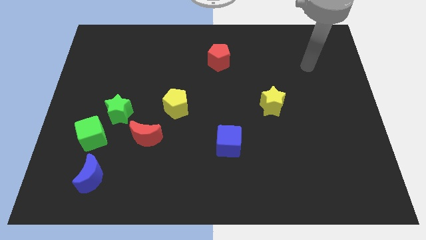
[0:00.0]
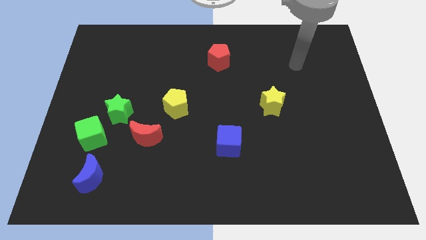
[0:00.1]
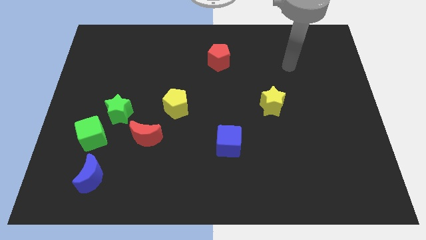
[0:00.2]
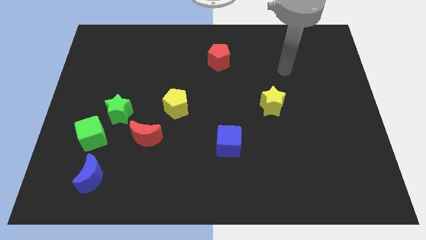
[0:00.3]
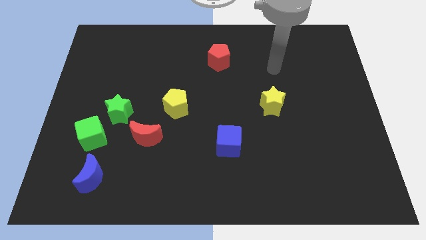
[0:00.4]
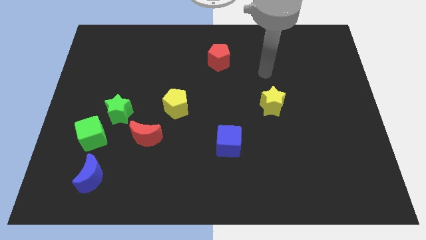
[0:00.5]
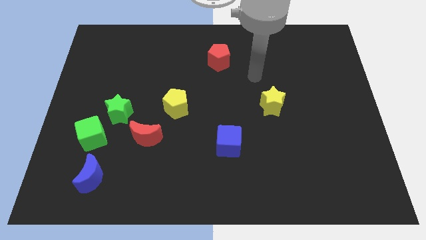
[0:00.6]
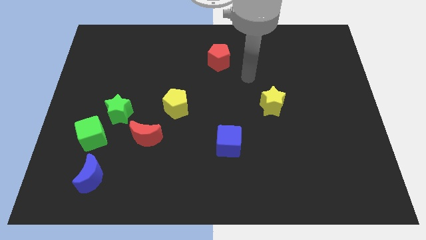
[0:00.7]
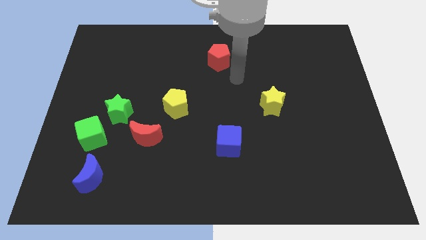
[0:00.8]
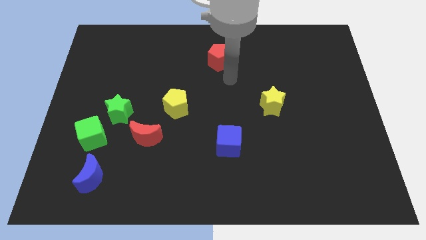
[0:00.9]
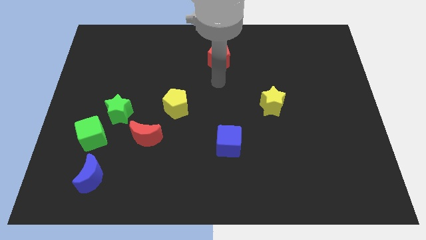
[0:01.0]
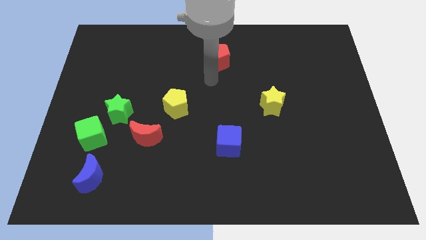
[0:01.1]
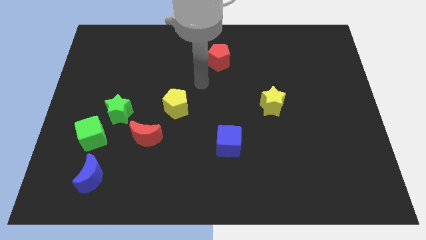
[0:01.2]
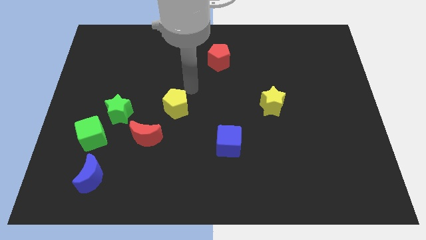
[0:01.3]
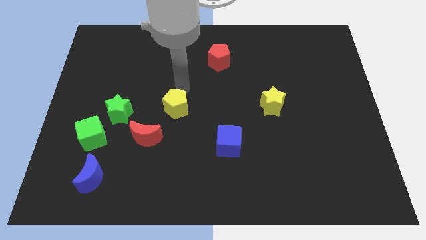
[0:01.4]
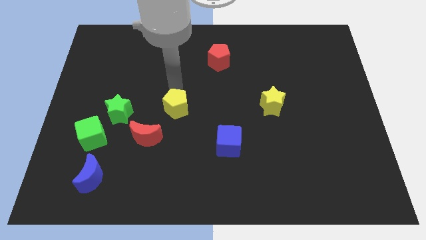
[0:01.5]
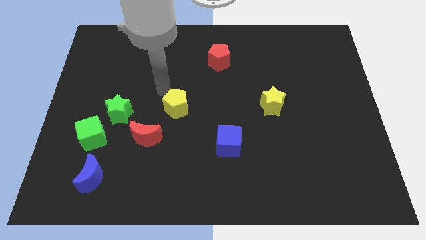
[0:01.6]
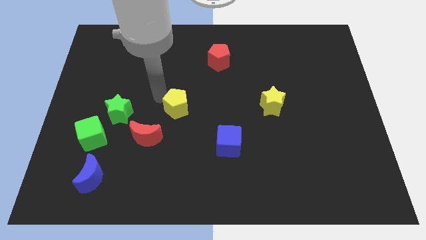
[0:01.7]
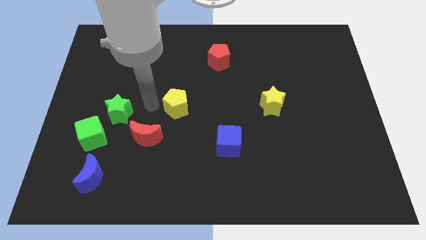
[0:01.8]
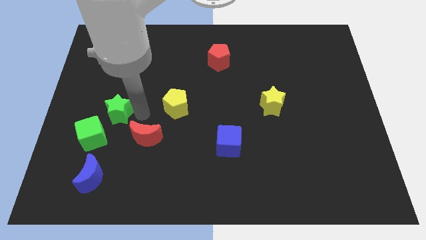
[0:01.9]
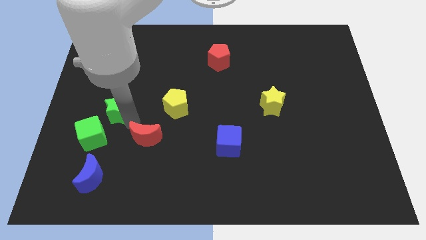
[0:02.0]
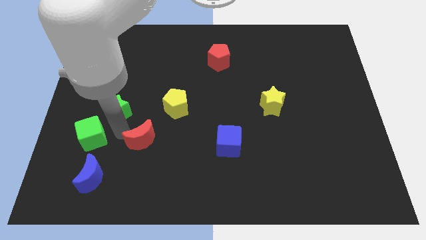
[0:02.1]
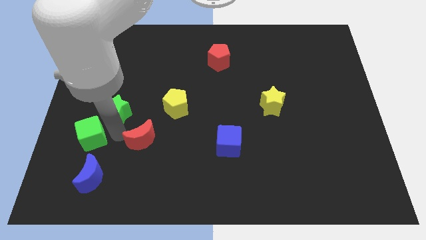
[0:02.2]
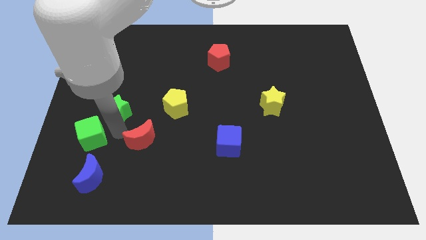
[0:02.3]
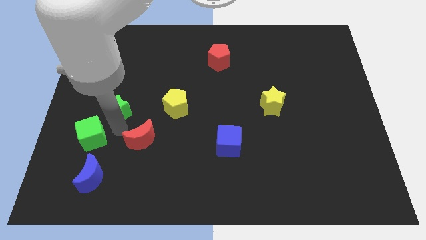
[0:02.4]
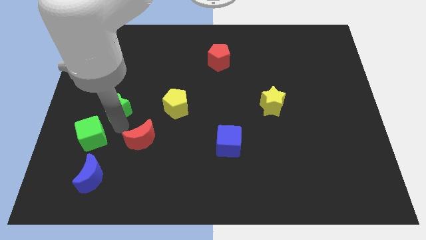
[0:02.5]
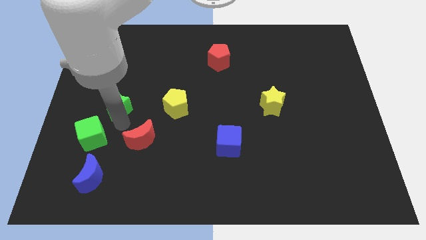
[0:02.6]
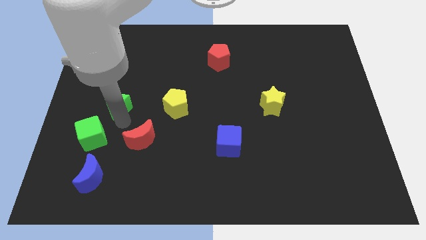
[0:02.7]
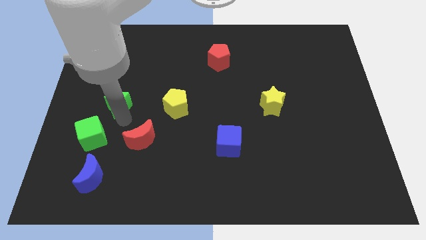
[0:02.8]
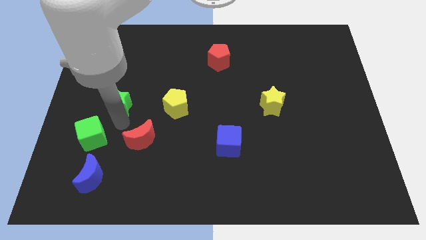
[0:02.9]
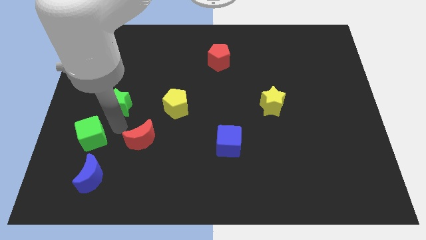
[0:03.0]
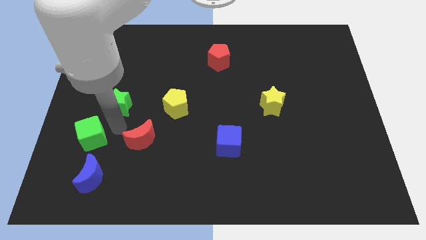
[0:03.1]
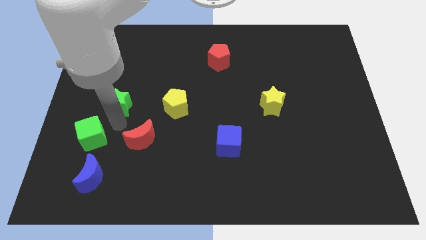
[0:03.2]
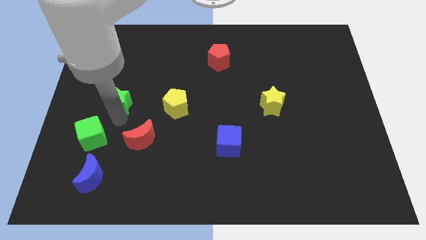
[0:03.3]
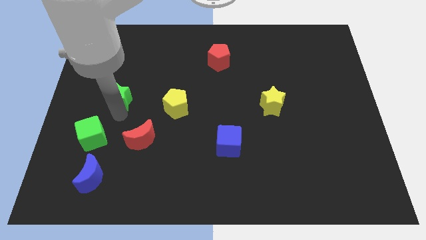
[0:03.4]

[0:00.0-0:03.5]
move the green star away from the green cube and red moon

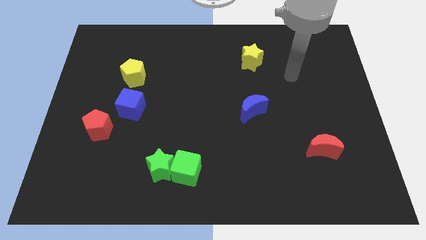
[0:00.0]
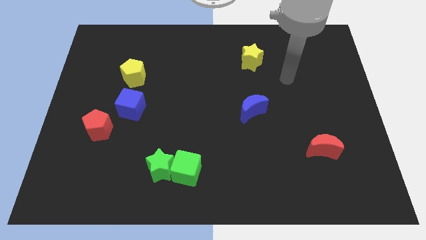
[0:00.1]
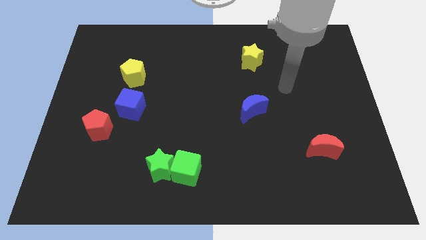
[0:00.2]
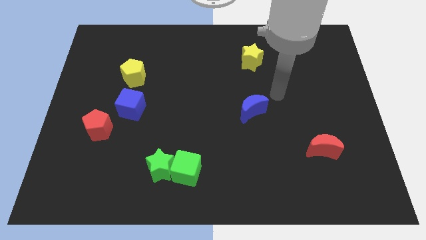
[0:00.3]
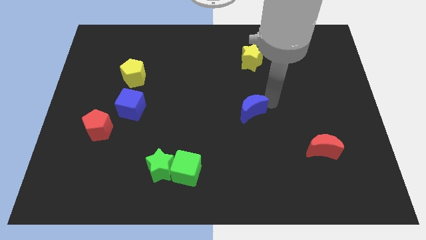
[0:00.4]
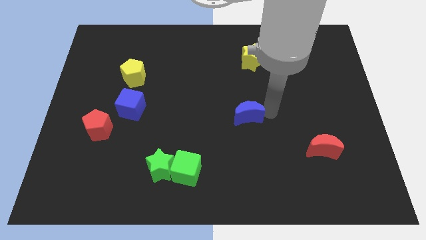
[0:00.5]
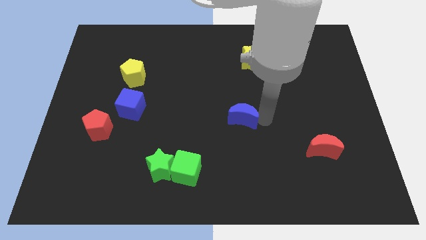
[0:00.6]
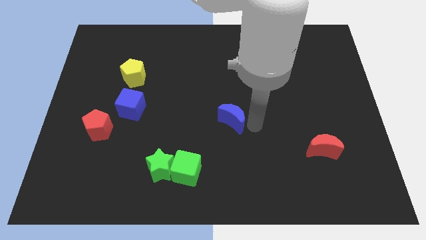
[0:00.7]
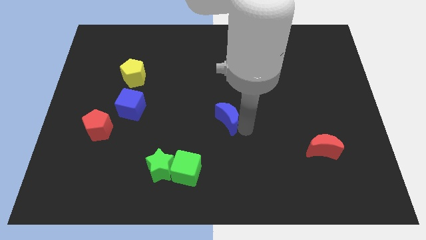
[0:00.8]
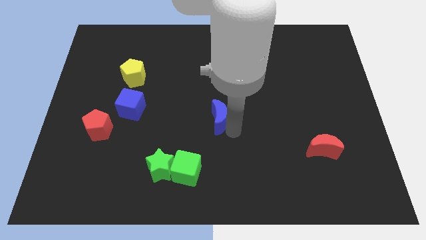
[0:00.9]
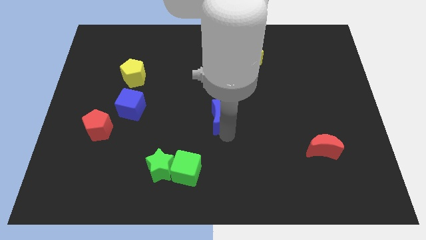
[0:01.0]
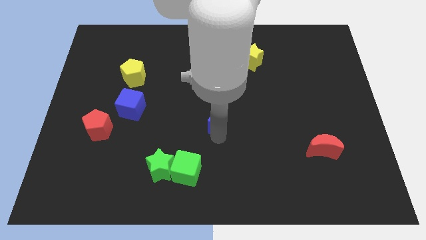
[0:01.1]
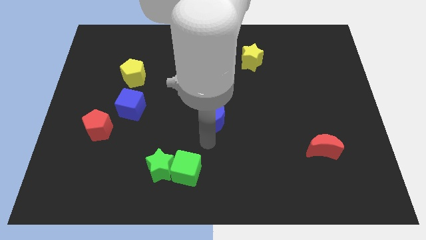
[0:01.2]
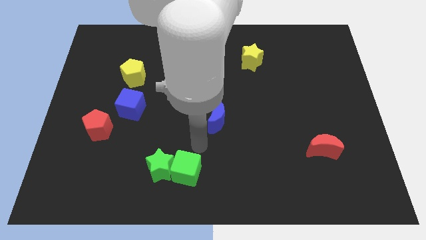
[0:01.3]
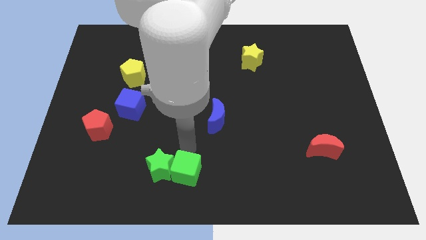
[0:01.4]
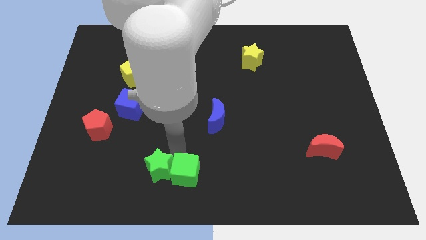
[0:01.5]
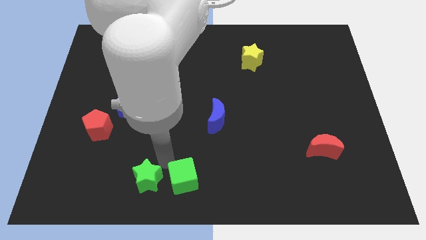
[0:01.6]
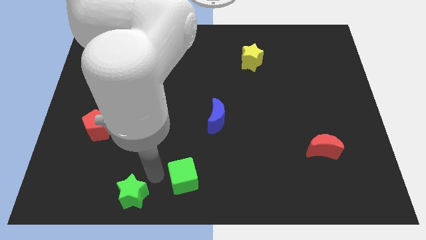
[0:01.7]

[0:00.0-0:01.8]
pull the green cube apart from the green star

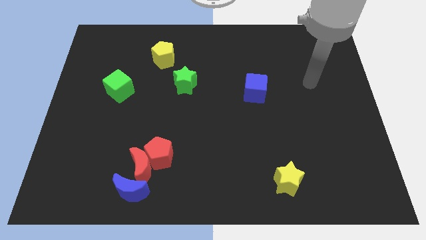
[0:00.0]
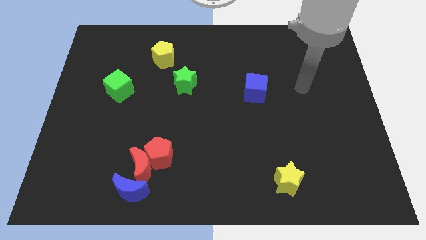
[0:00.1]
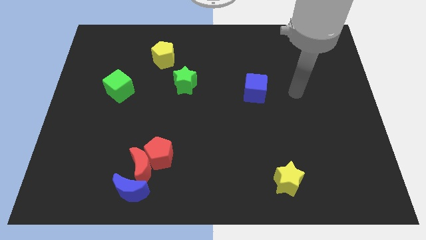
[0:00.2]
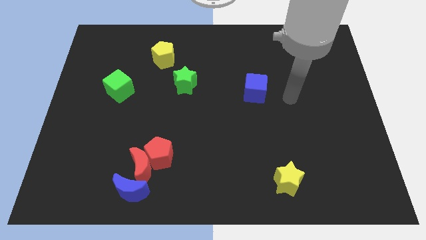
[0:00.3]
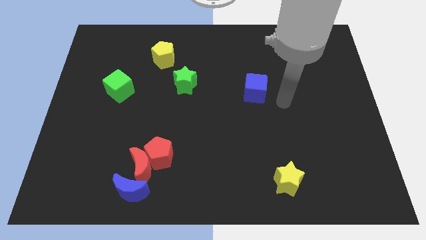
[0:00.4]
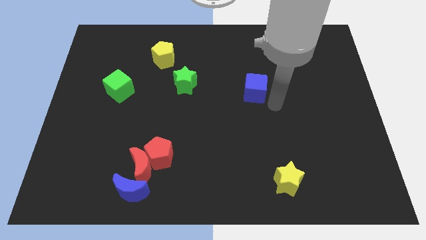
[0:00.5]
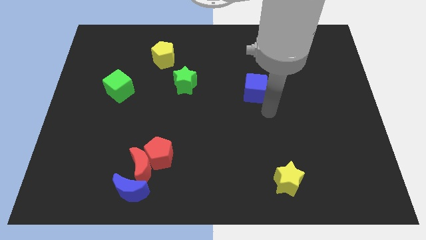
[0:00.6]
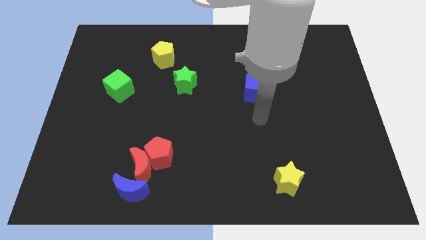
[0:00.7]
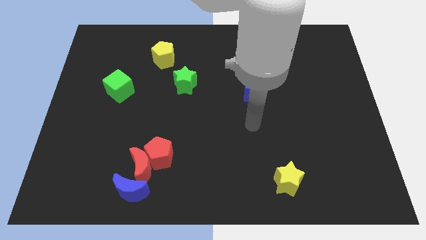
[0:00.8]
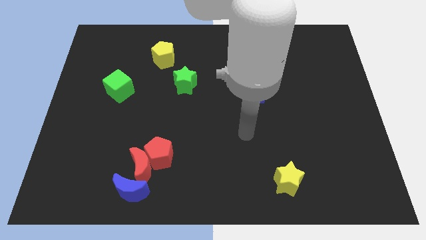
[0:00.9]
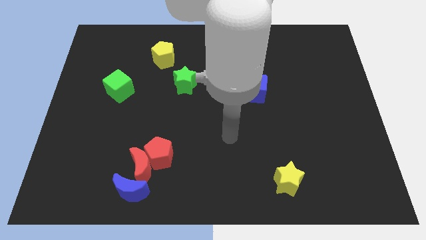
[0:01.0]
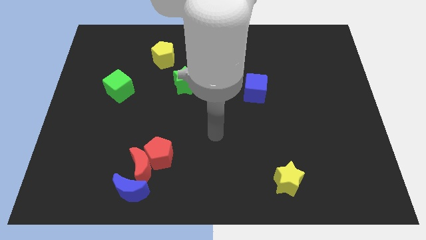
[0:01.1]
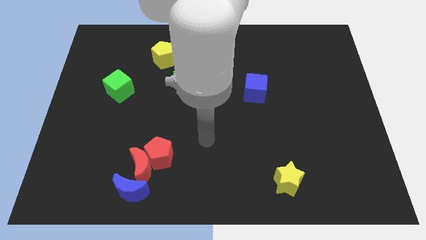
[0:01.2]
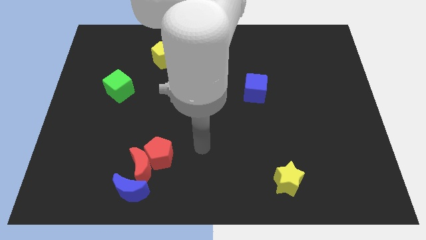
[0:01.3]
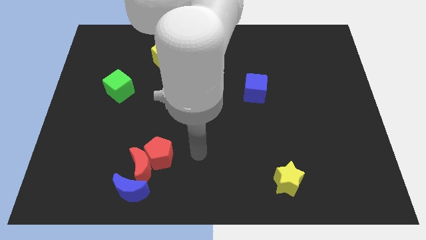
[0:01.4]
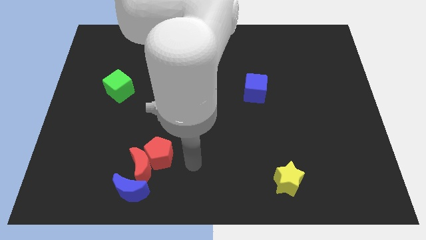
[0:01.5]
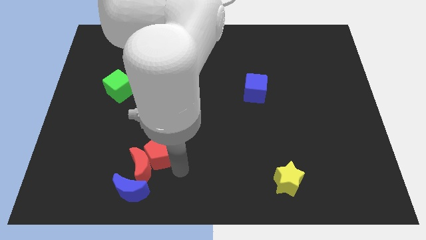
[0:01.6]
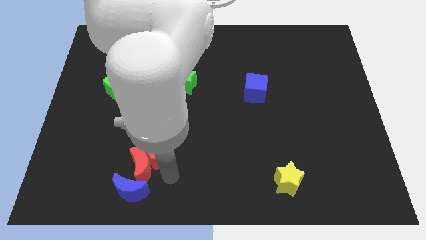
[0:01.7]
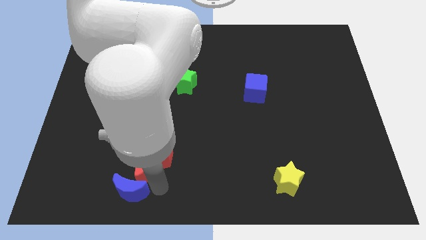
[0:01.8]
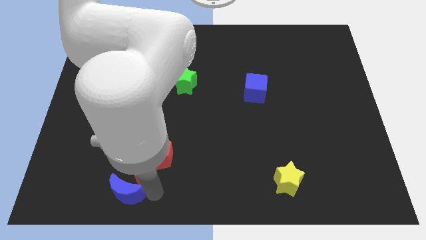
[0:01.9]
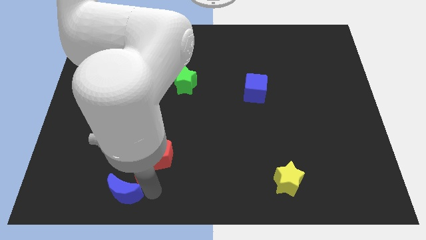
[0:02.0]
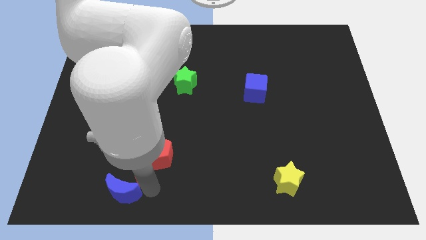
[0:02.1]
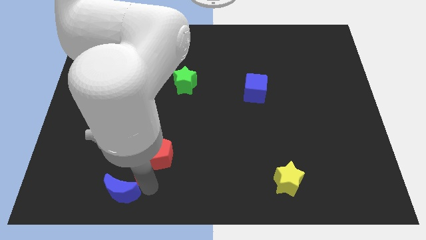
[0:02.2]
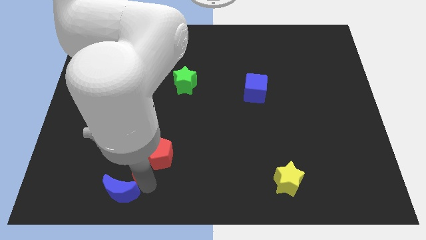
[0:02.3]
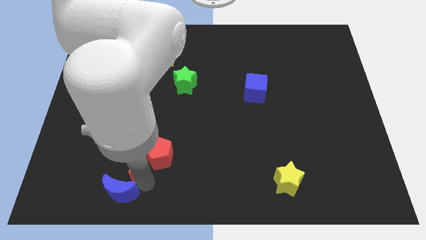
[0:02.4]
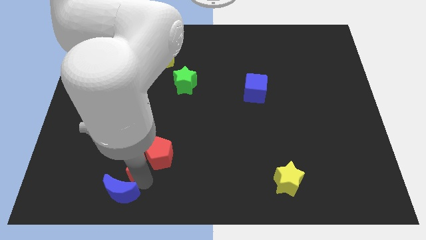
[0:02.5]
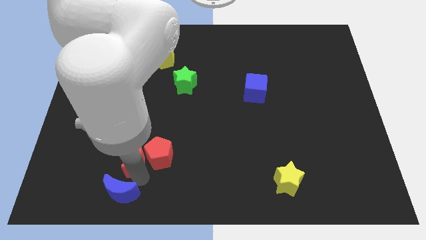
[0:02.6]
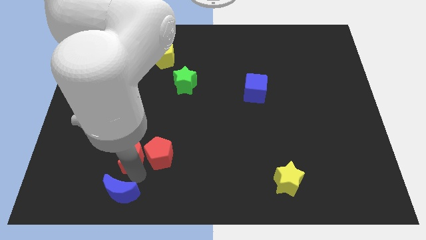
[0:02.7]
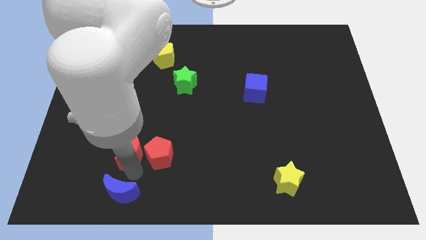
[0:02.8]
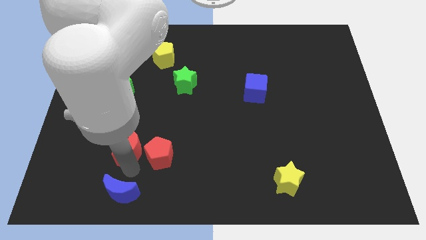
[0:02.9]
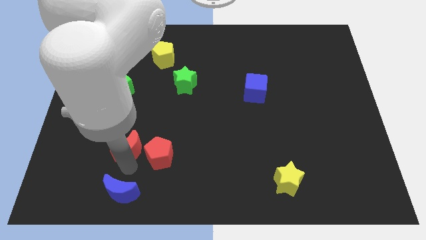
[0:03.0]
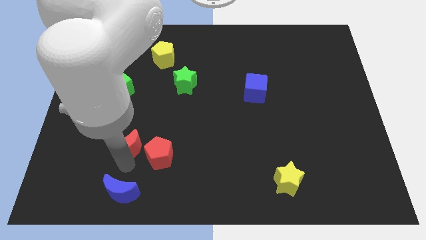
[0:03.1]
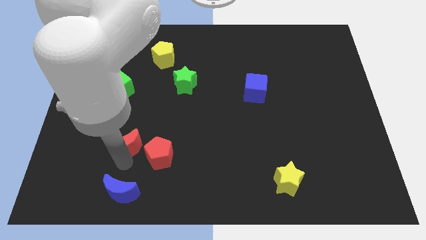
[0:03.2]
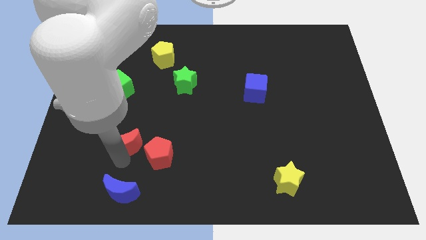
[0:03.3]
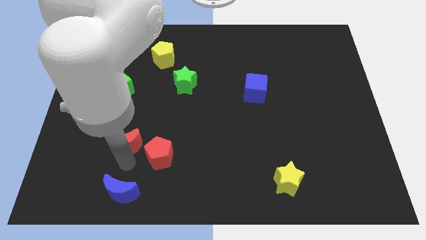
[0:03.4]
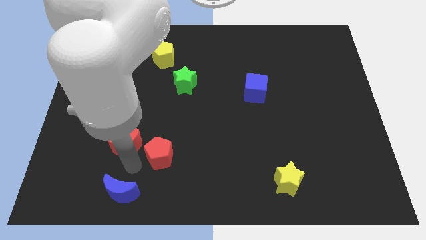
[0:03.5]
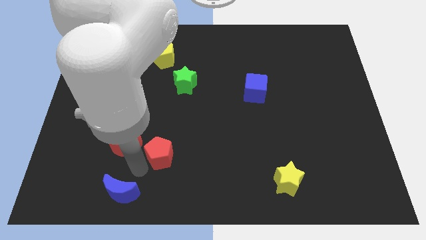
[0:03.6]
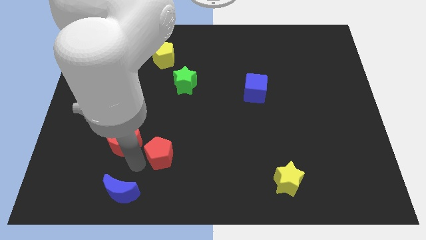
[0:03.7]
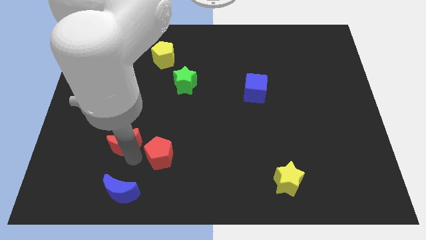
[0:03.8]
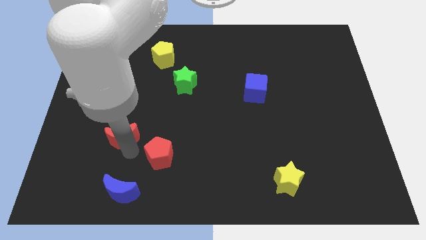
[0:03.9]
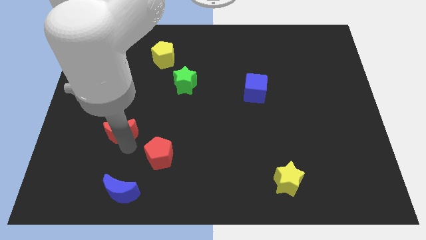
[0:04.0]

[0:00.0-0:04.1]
pull the red moon apart from the red pentagon and blue moon

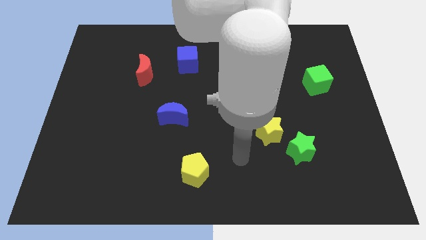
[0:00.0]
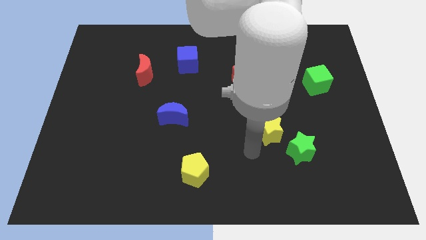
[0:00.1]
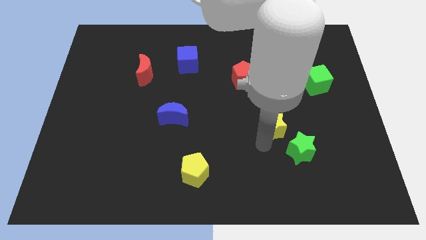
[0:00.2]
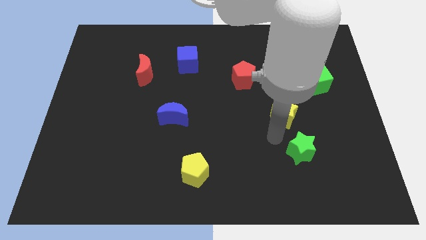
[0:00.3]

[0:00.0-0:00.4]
separate the green star from the yellow star
